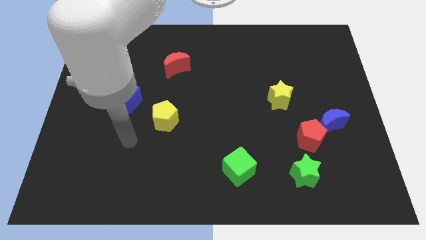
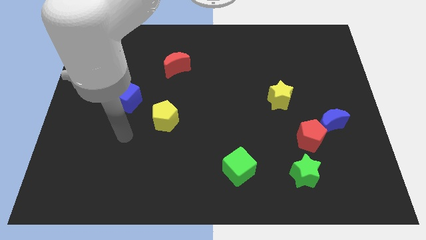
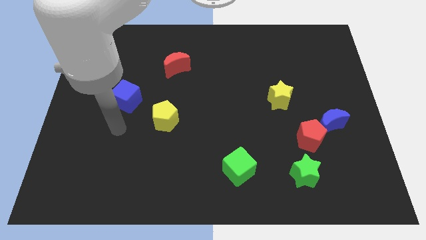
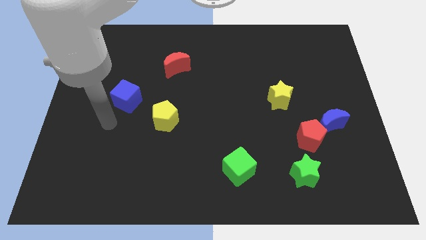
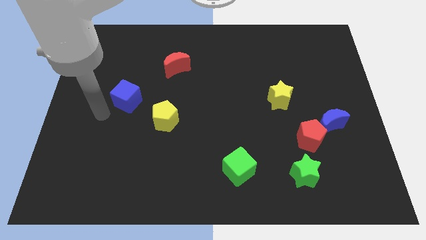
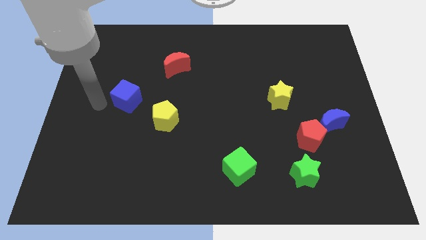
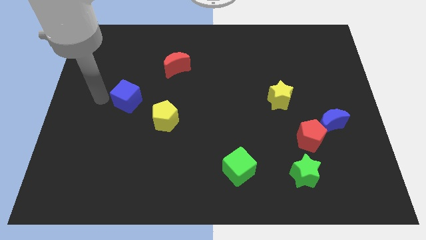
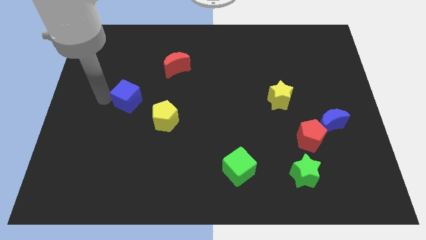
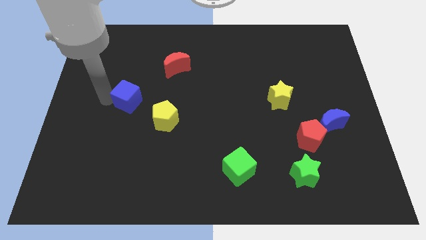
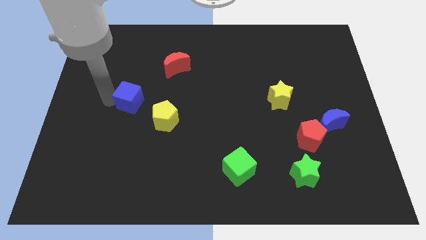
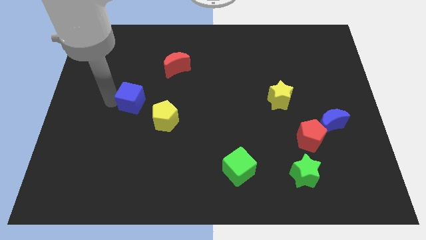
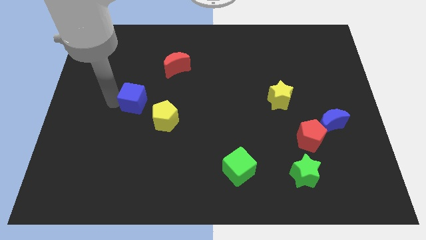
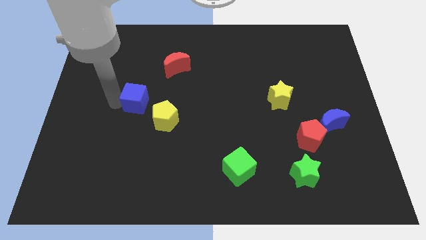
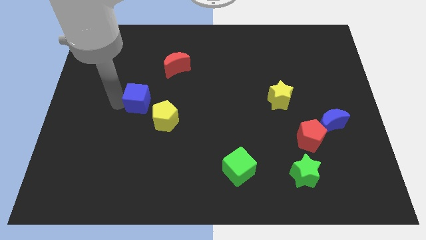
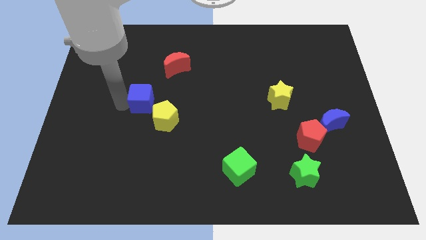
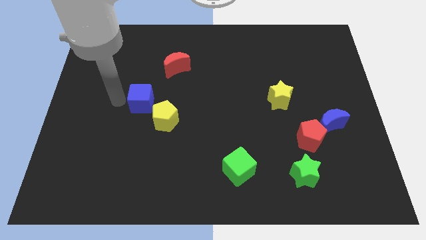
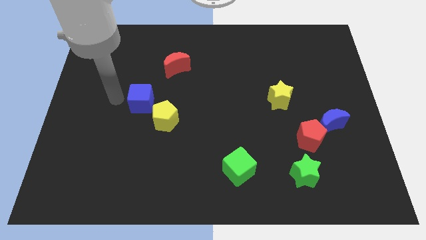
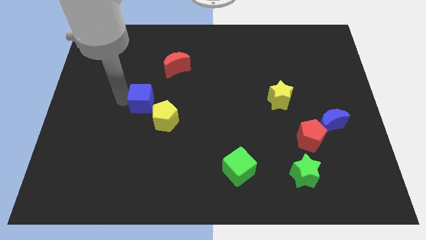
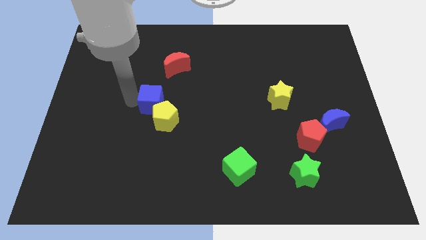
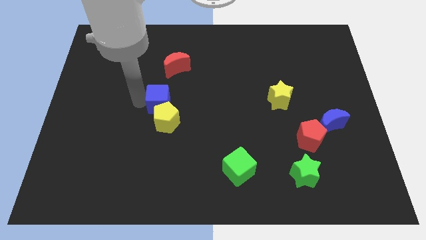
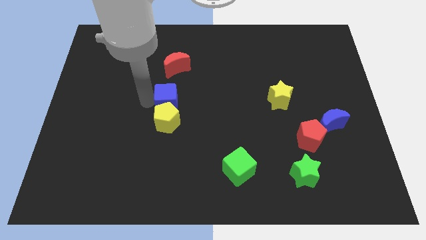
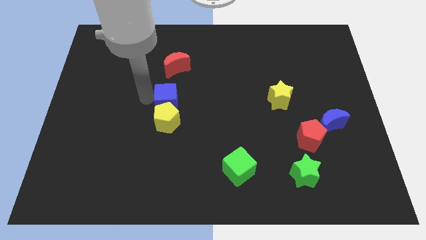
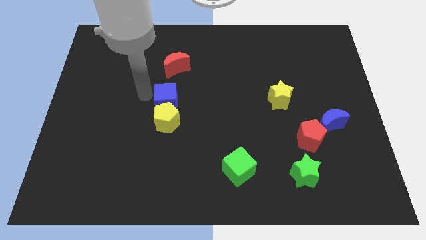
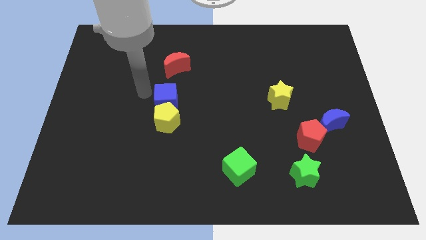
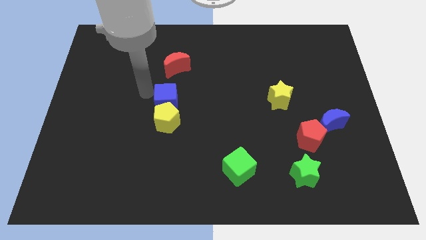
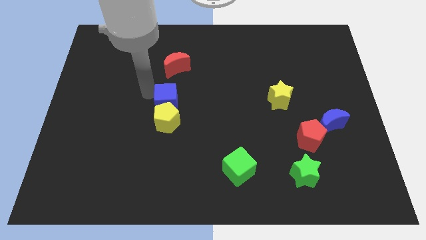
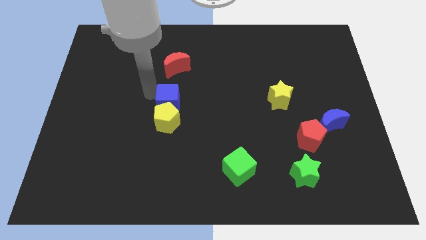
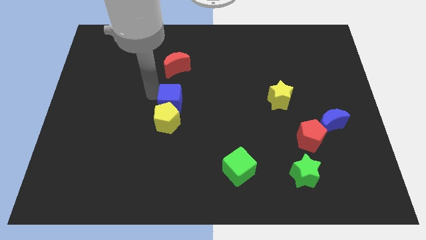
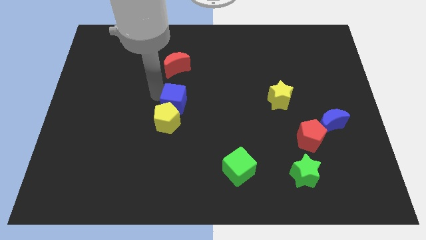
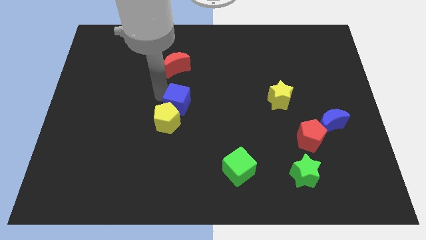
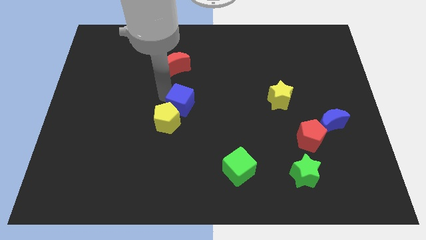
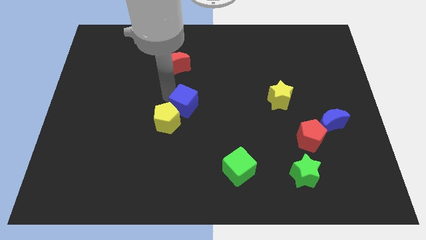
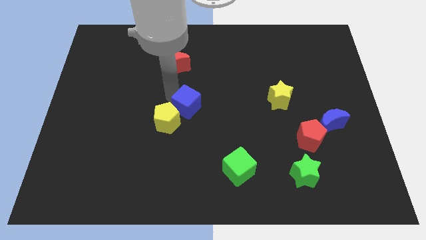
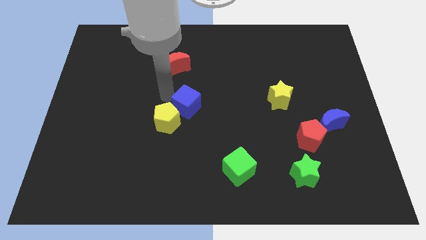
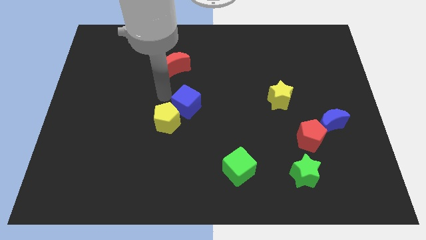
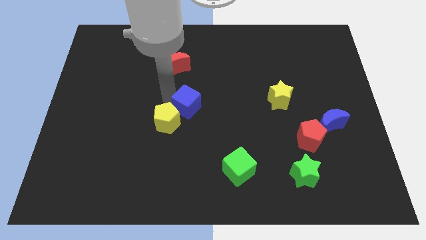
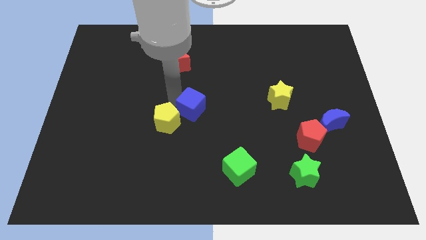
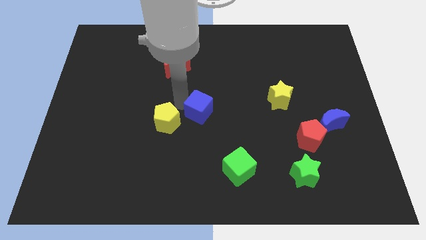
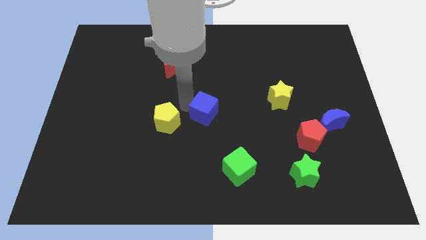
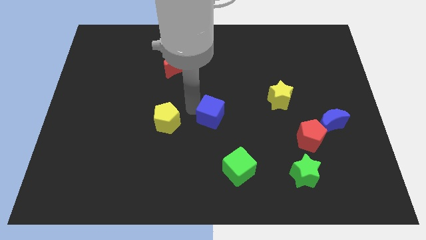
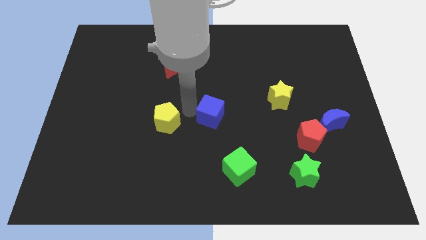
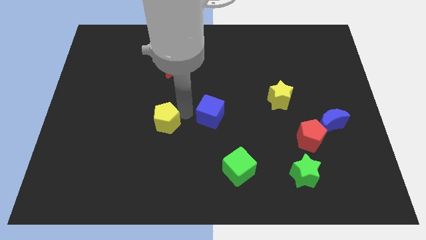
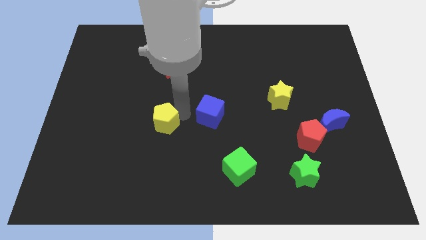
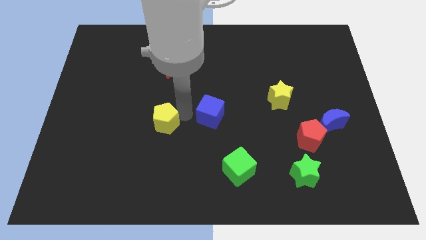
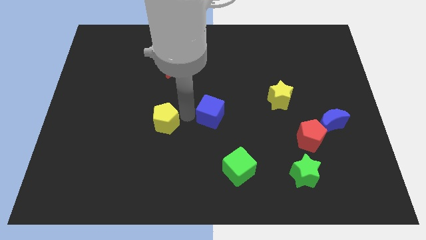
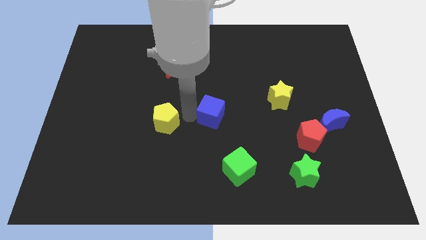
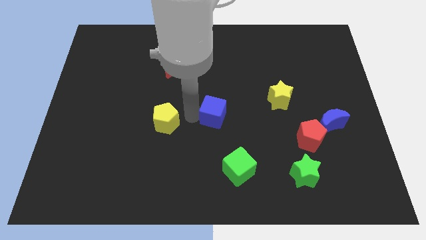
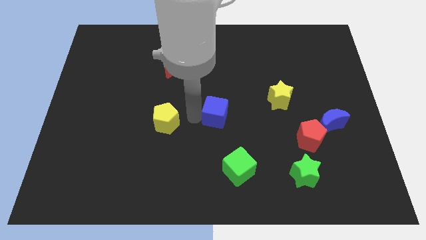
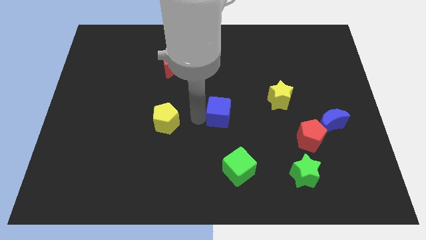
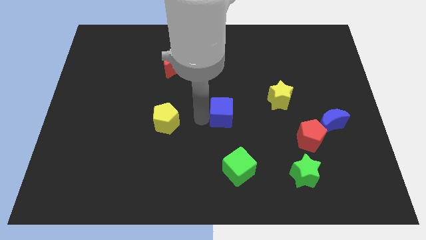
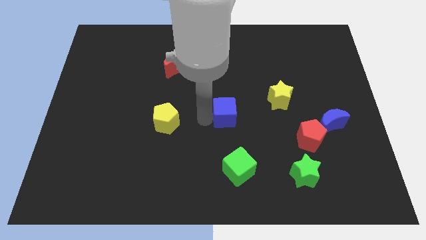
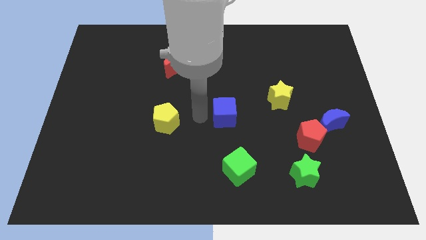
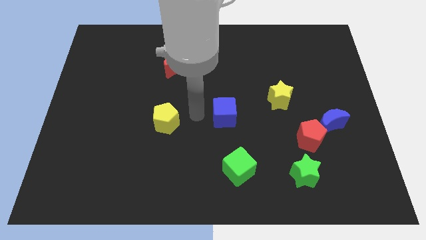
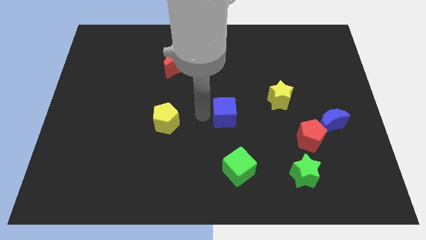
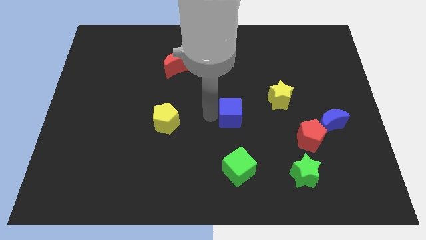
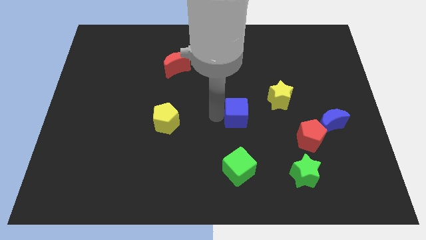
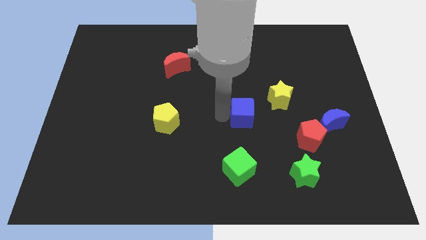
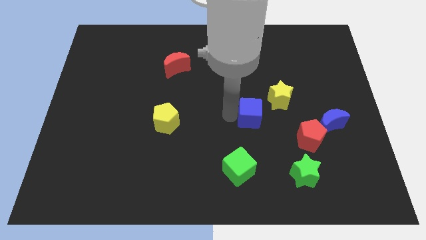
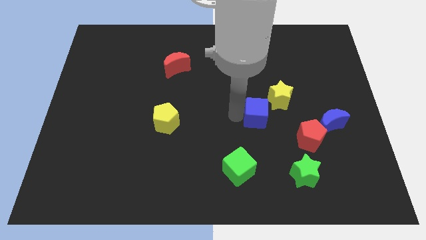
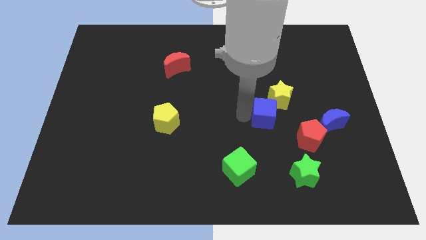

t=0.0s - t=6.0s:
put the blue cube diagonally up and to the left of the red pentagon

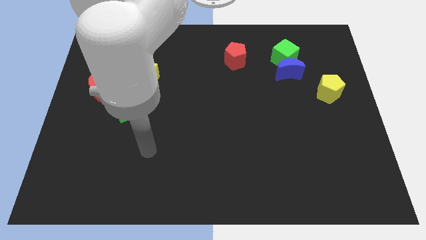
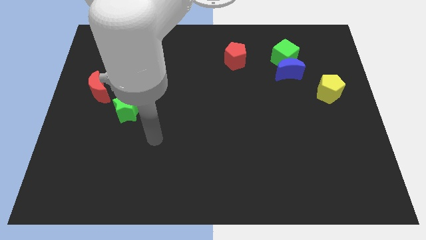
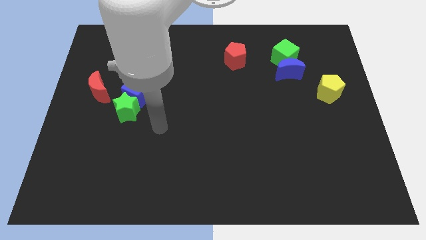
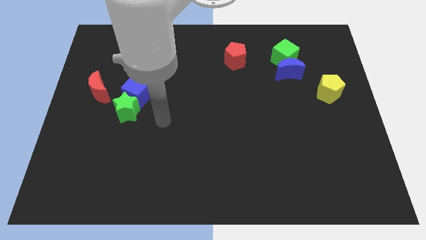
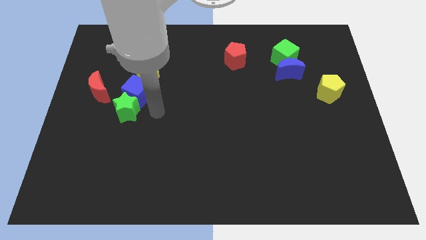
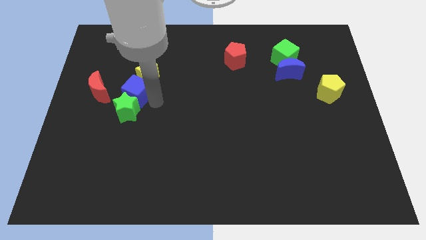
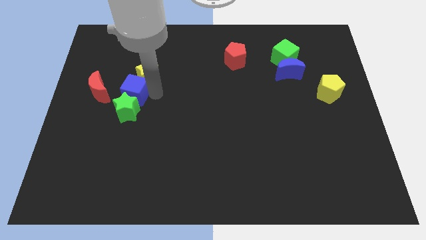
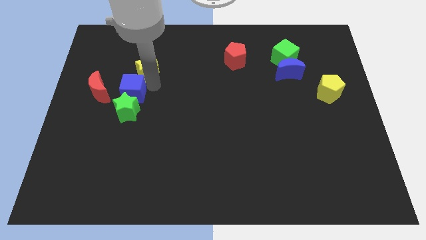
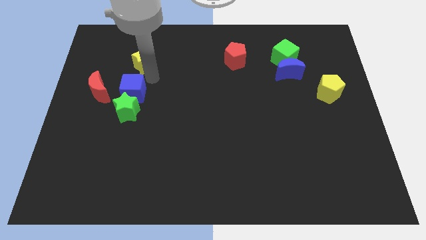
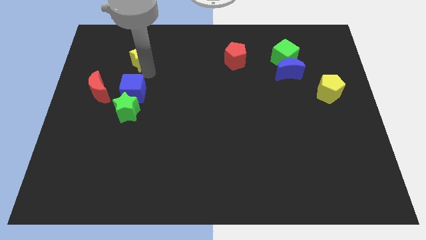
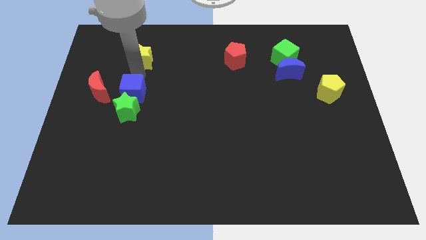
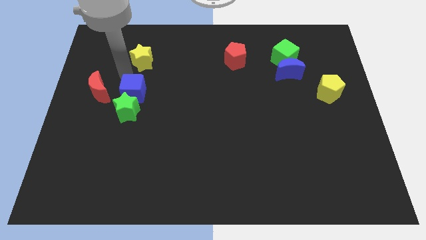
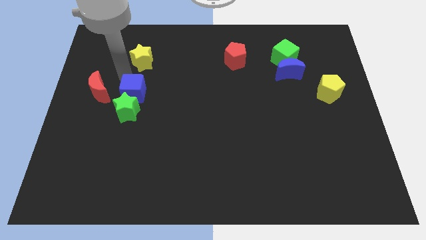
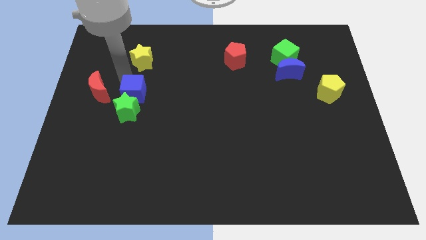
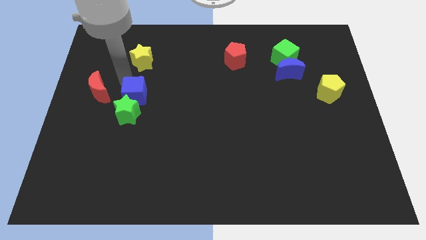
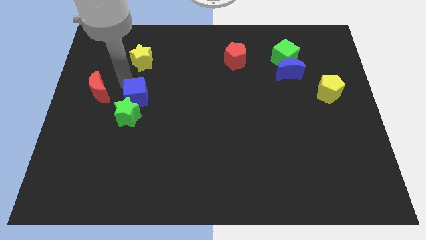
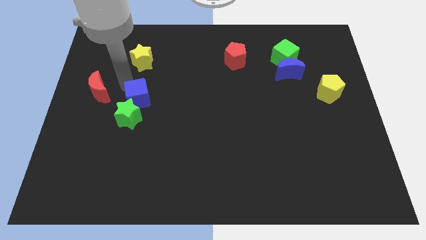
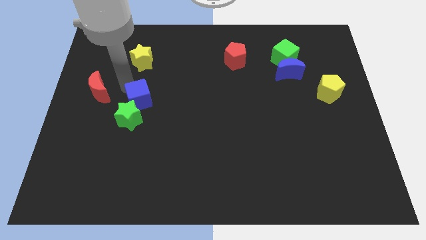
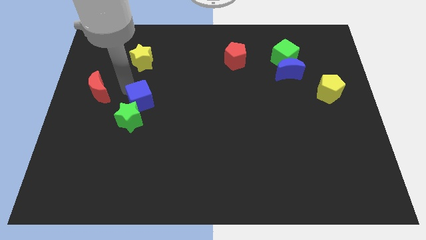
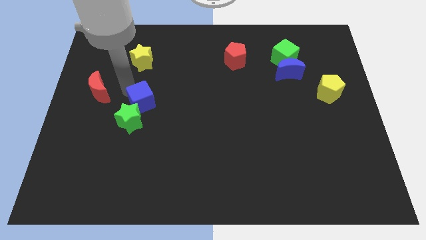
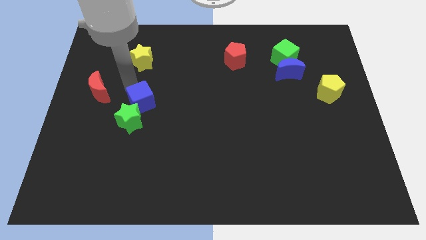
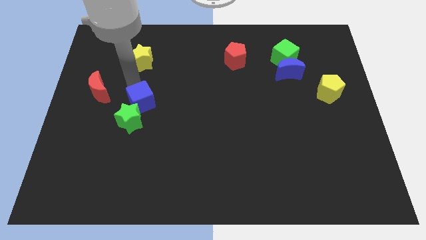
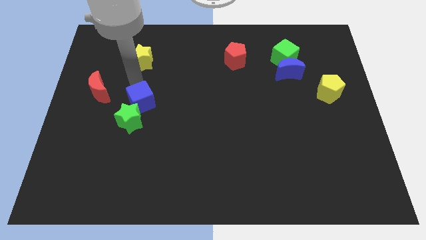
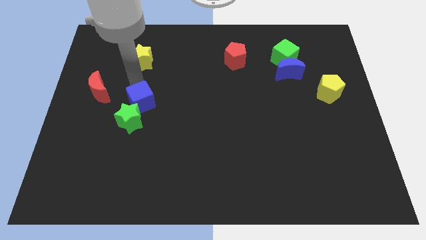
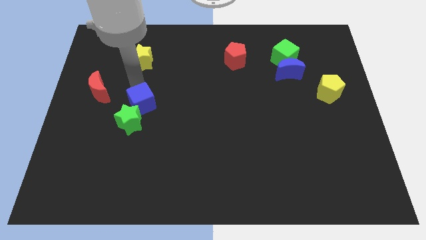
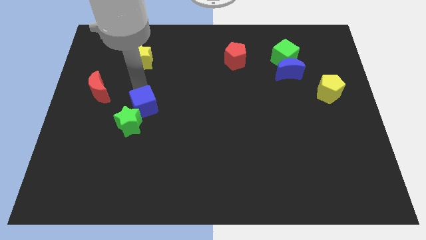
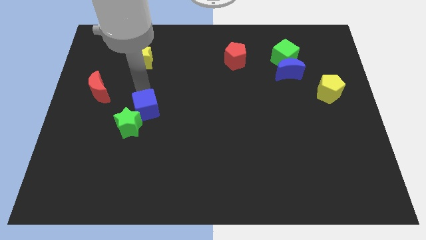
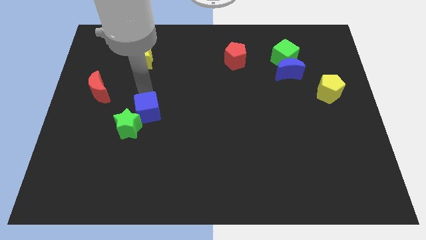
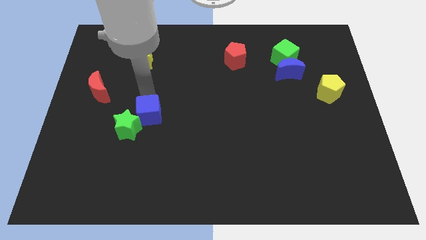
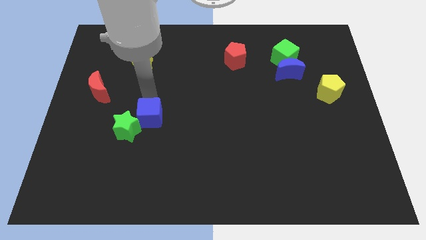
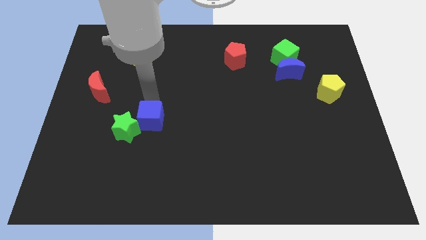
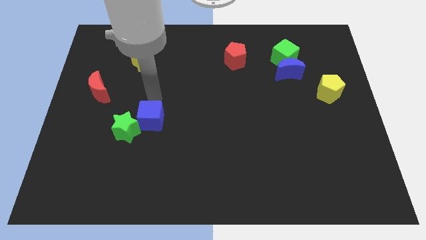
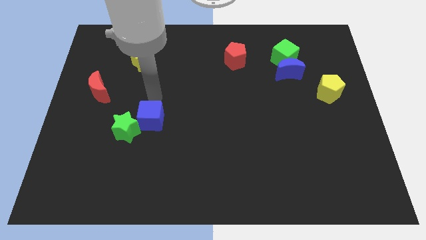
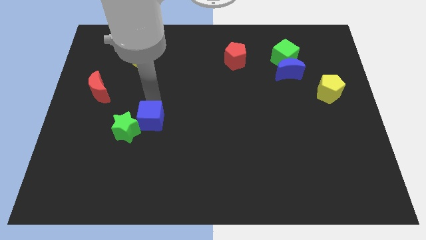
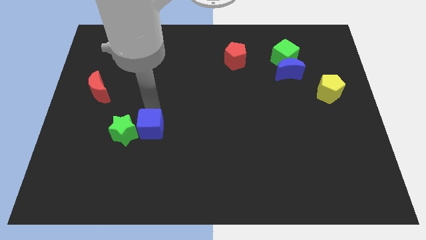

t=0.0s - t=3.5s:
put the blue cube to the bottom right of the green star
